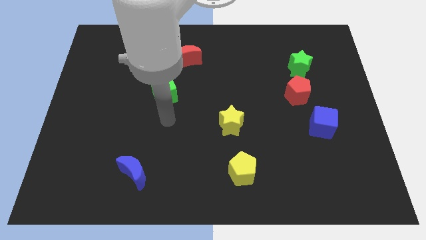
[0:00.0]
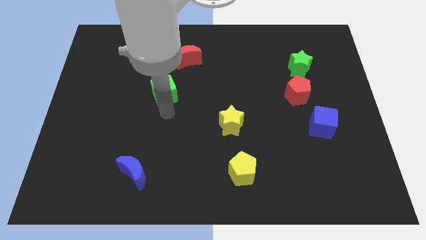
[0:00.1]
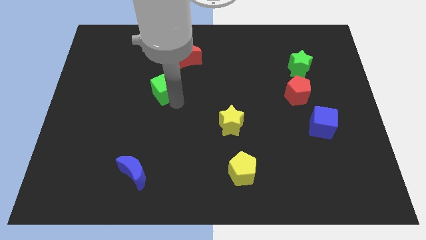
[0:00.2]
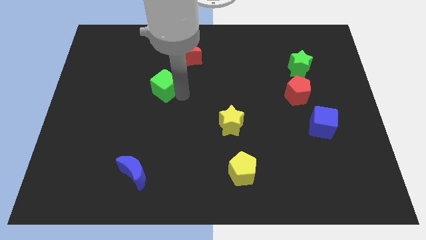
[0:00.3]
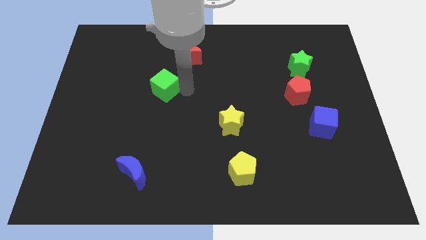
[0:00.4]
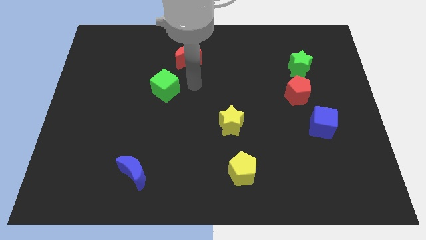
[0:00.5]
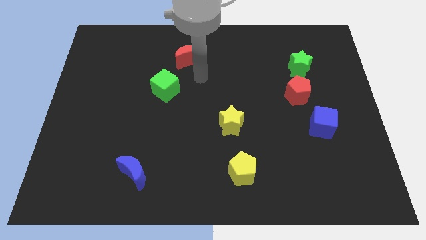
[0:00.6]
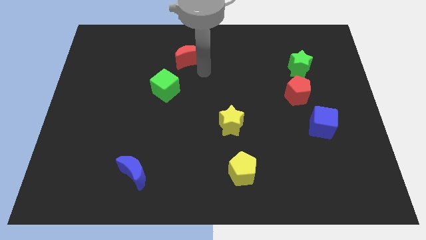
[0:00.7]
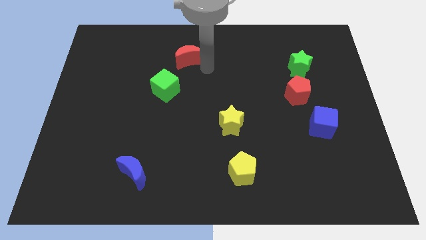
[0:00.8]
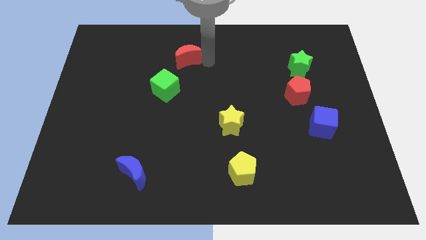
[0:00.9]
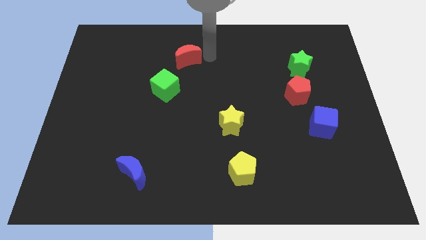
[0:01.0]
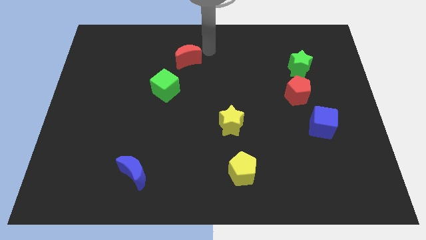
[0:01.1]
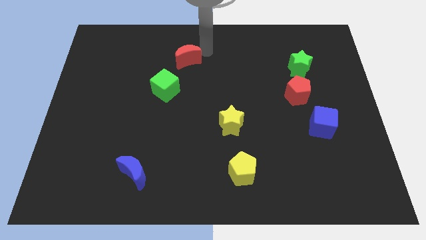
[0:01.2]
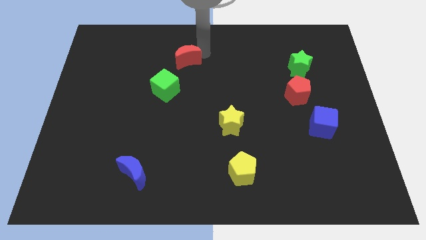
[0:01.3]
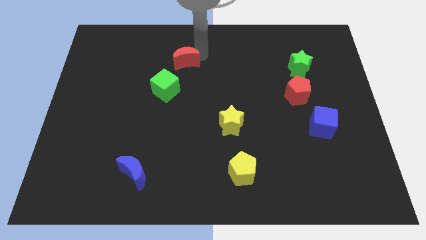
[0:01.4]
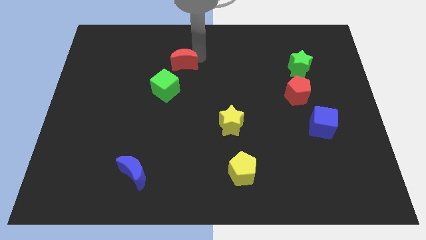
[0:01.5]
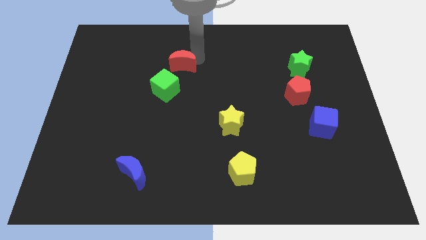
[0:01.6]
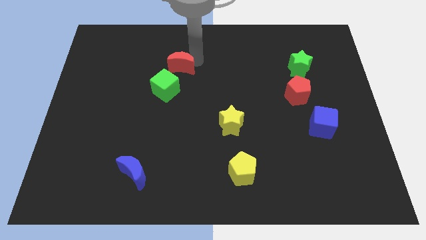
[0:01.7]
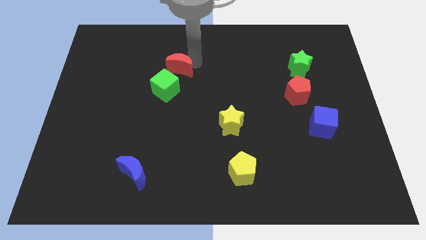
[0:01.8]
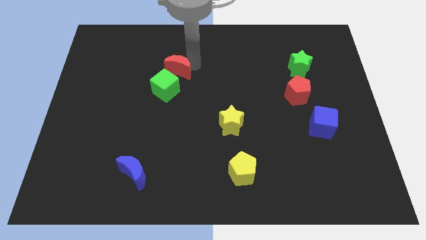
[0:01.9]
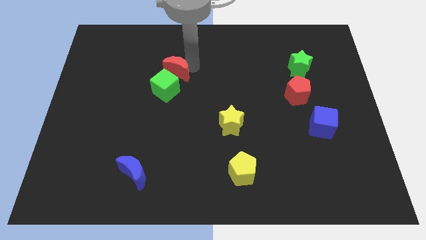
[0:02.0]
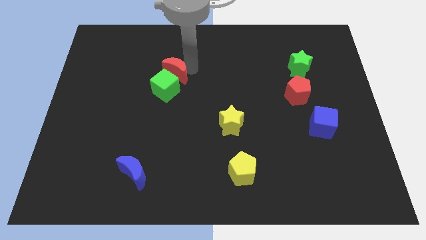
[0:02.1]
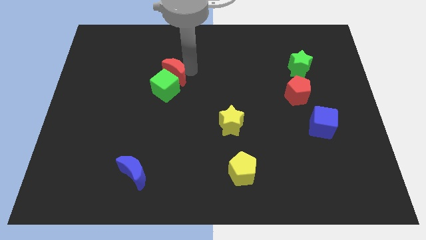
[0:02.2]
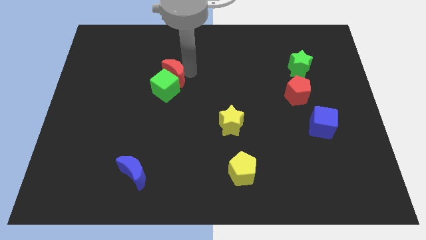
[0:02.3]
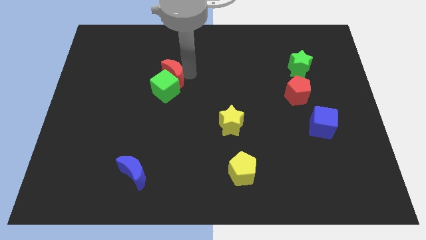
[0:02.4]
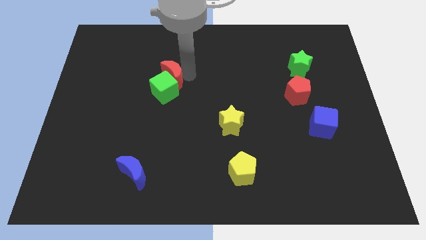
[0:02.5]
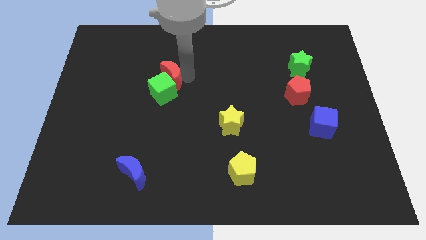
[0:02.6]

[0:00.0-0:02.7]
push the red moon a bit downwards and to the left diagonally

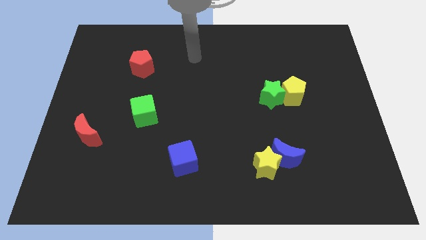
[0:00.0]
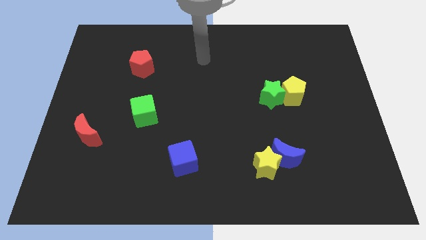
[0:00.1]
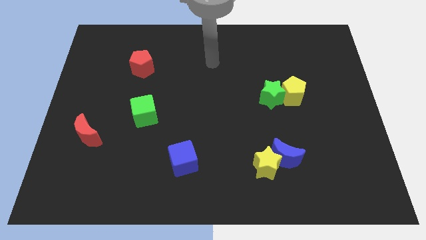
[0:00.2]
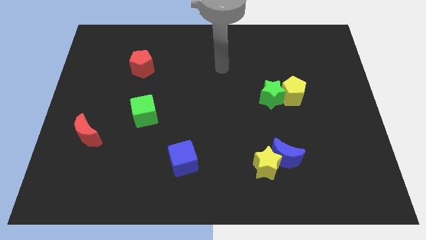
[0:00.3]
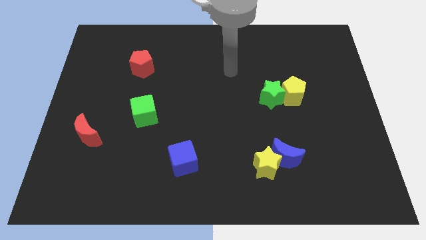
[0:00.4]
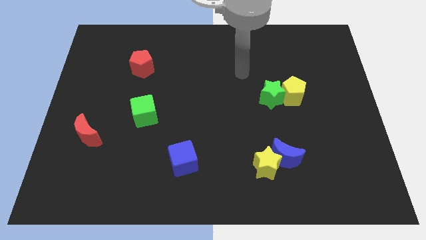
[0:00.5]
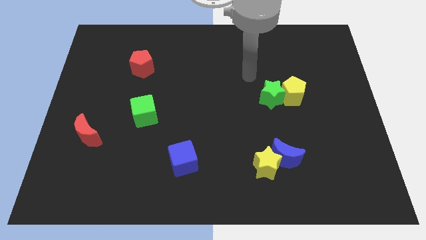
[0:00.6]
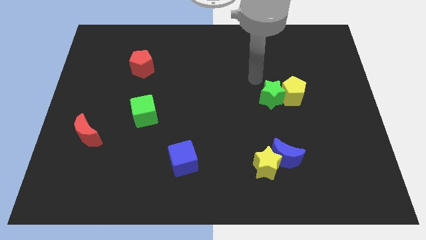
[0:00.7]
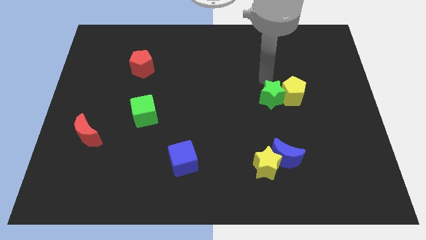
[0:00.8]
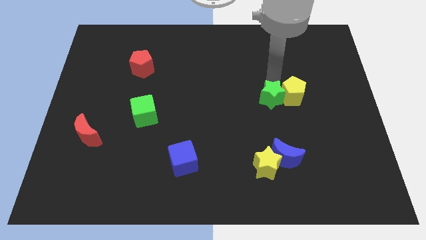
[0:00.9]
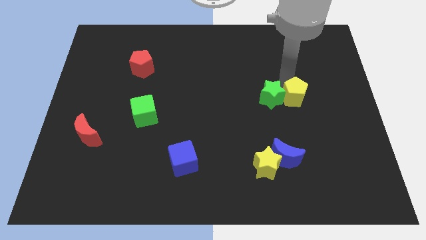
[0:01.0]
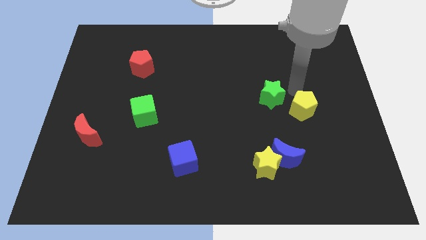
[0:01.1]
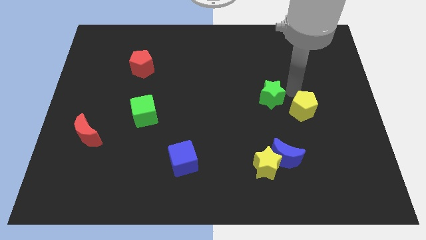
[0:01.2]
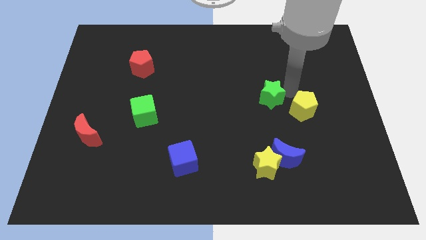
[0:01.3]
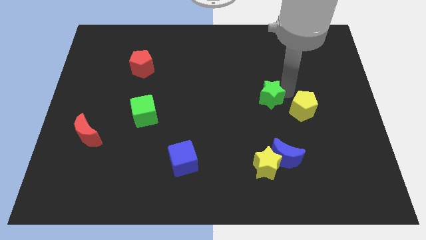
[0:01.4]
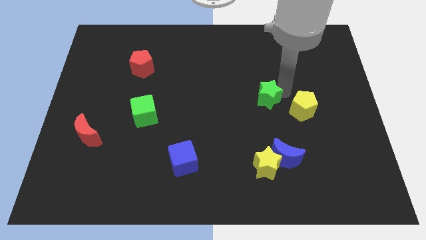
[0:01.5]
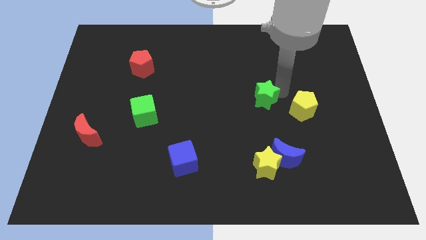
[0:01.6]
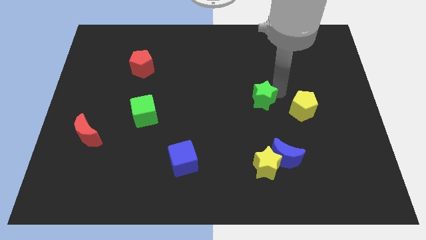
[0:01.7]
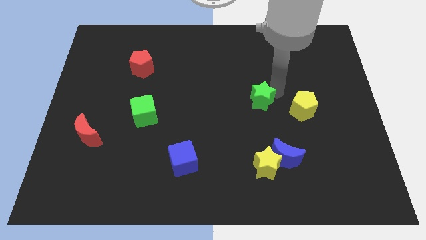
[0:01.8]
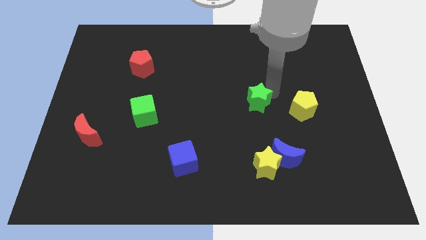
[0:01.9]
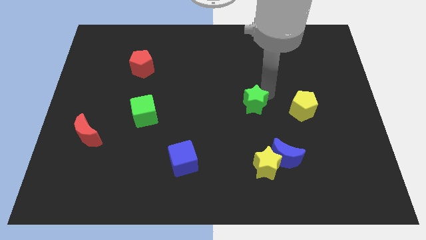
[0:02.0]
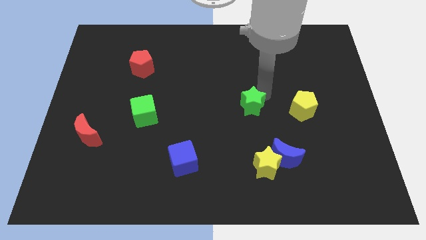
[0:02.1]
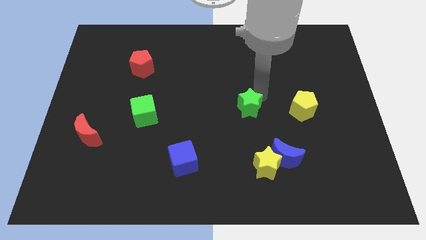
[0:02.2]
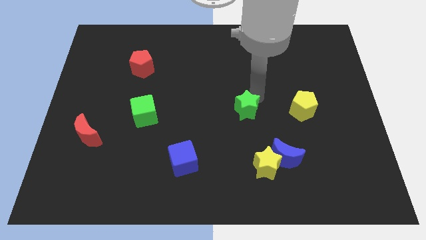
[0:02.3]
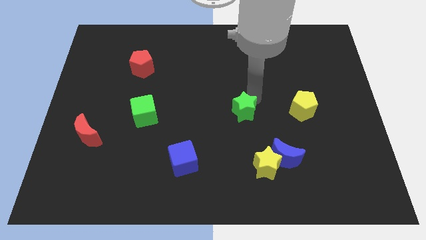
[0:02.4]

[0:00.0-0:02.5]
slide the green star a little bit downwards and left diagonally

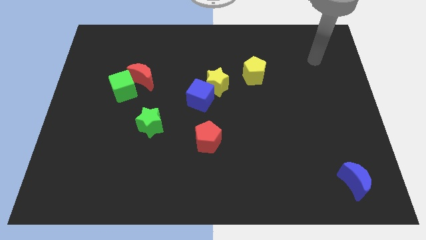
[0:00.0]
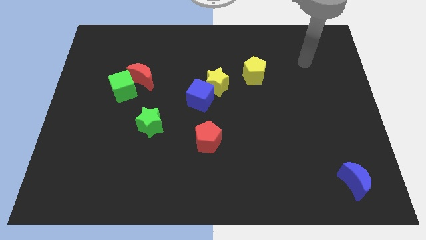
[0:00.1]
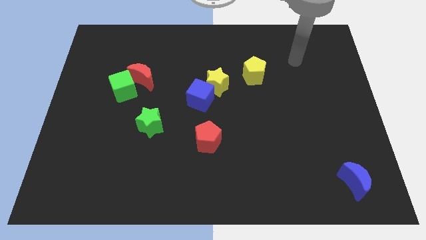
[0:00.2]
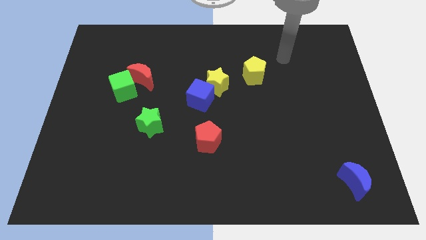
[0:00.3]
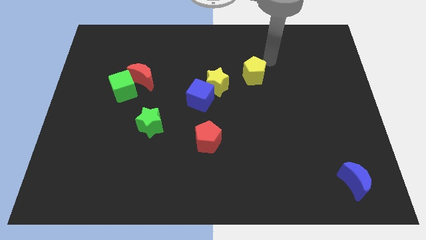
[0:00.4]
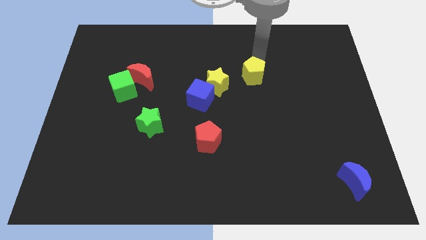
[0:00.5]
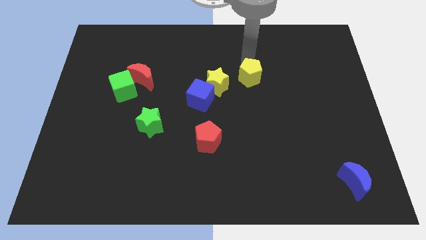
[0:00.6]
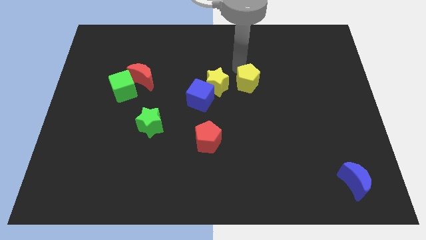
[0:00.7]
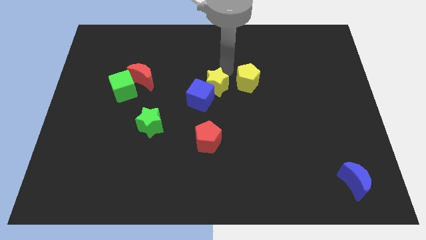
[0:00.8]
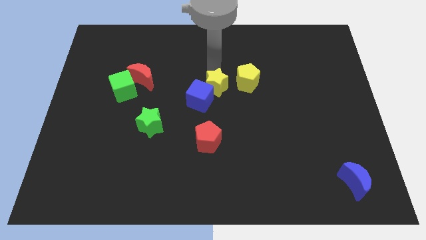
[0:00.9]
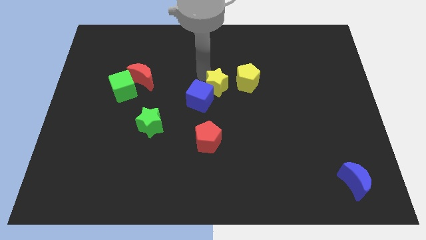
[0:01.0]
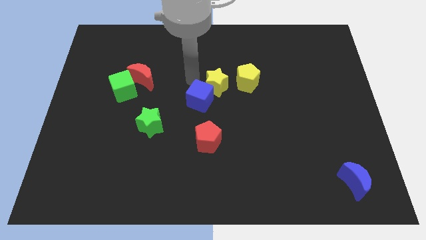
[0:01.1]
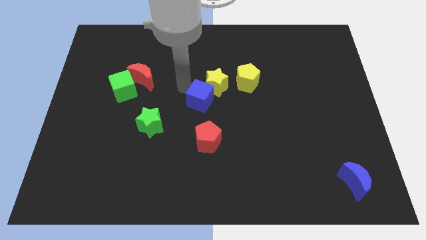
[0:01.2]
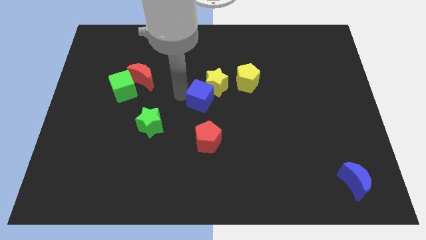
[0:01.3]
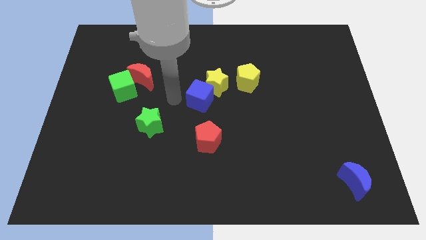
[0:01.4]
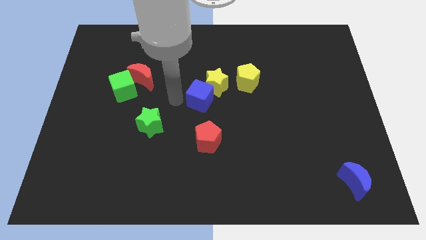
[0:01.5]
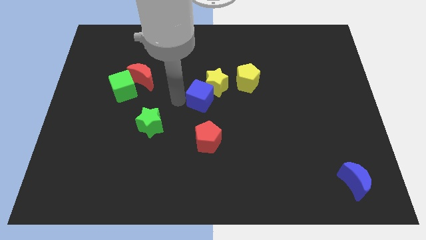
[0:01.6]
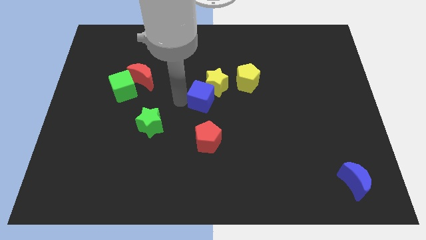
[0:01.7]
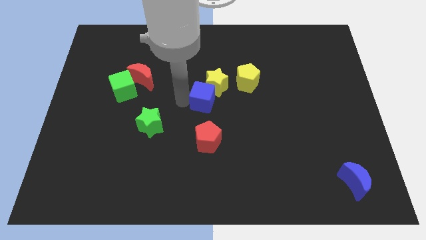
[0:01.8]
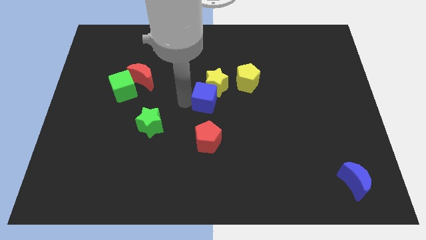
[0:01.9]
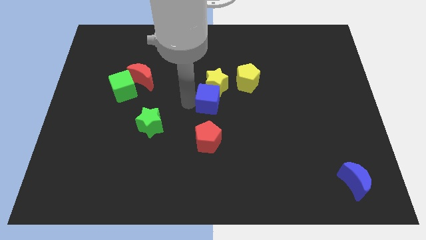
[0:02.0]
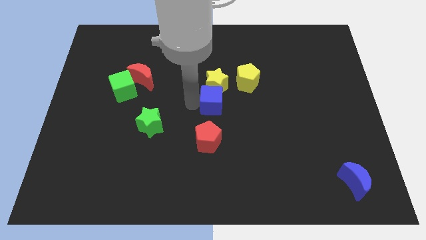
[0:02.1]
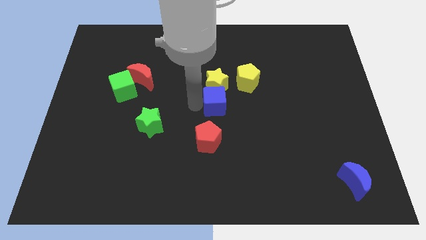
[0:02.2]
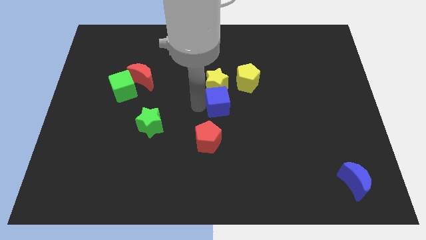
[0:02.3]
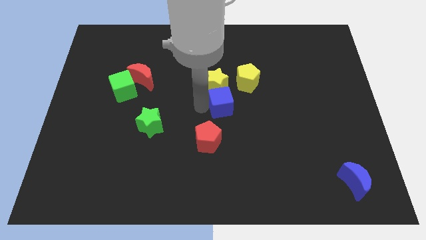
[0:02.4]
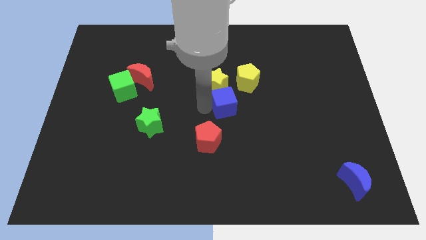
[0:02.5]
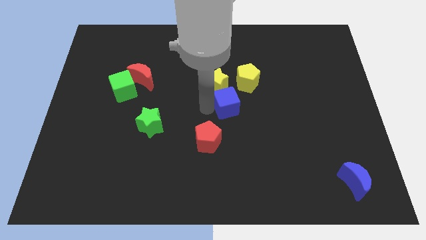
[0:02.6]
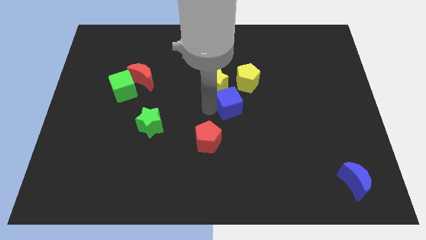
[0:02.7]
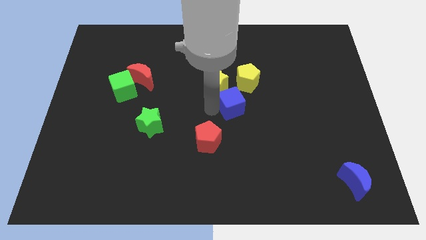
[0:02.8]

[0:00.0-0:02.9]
push the blue cube a little bit to the right

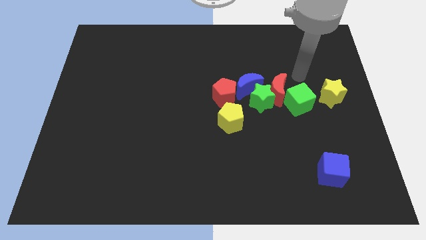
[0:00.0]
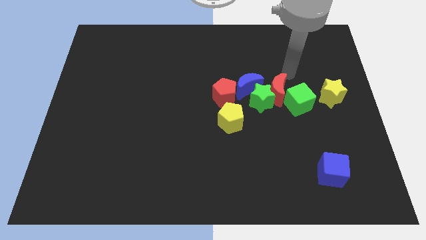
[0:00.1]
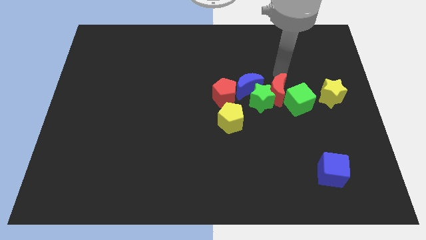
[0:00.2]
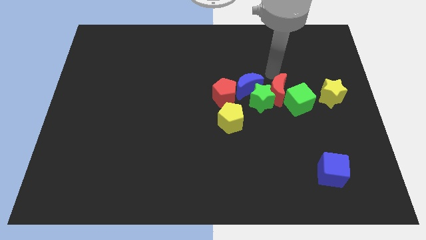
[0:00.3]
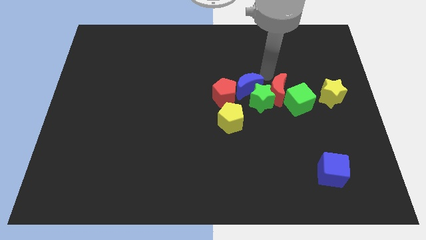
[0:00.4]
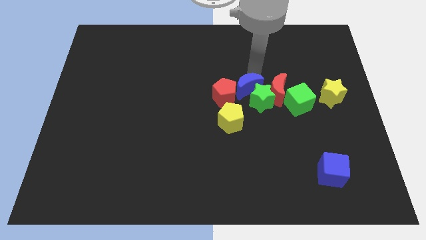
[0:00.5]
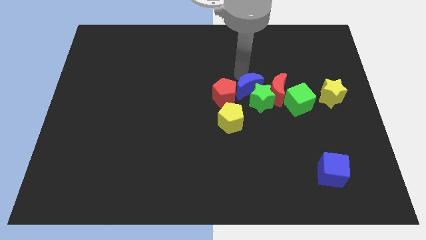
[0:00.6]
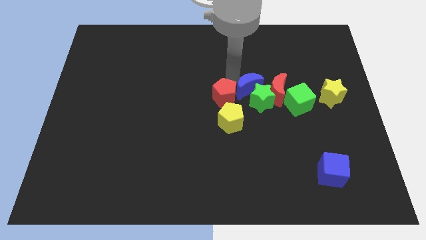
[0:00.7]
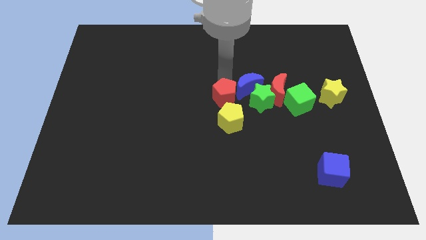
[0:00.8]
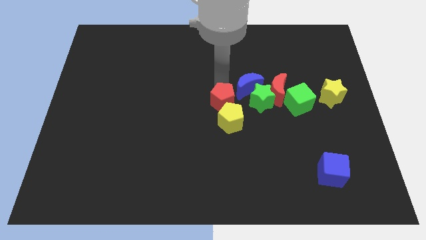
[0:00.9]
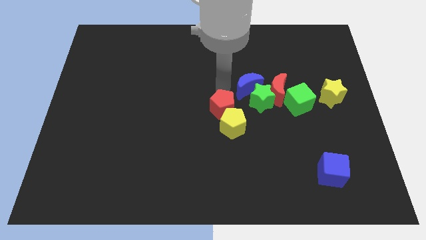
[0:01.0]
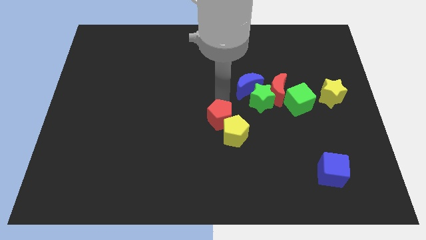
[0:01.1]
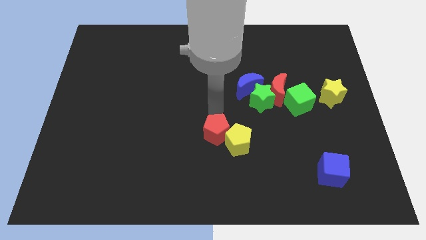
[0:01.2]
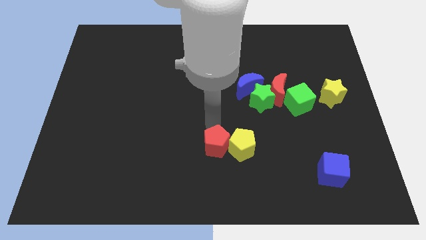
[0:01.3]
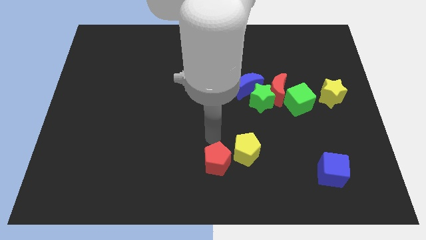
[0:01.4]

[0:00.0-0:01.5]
move the yellow pentagon downwards and to the right diagonally slightly
